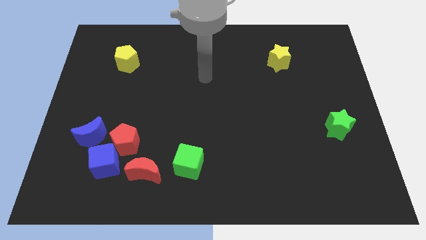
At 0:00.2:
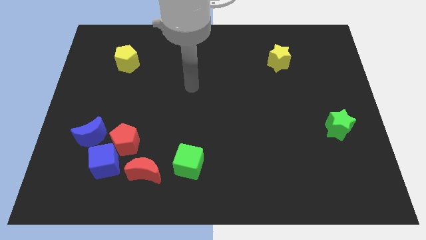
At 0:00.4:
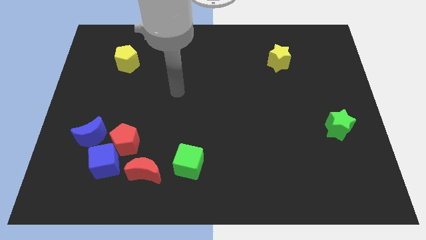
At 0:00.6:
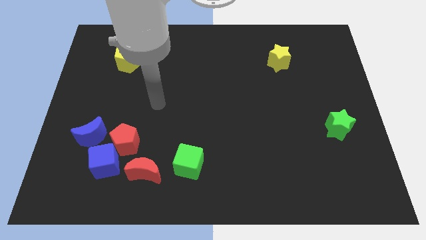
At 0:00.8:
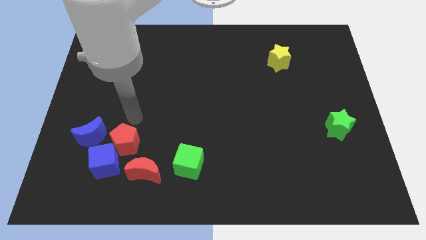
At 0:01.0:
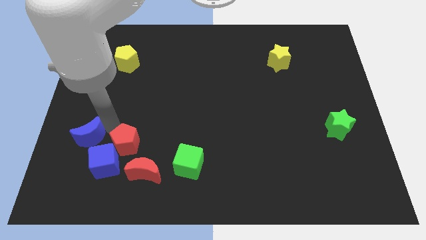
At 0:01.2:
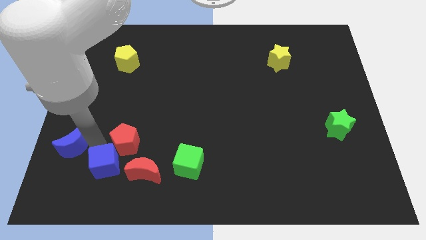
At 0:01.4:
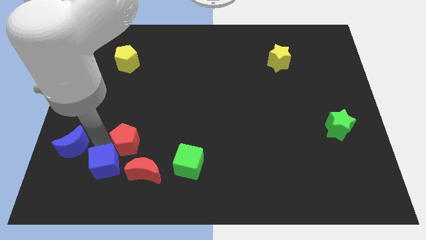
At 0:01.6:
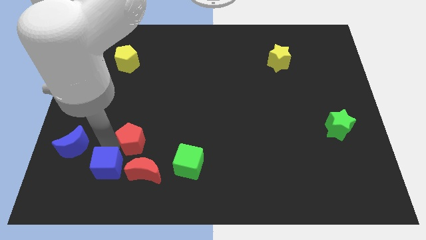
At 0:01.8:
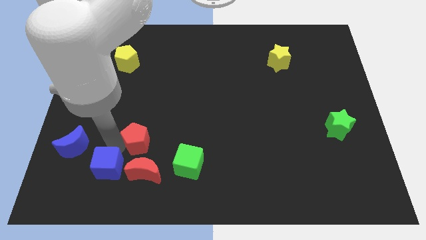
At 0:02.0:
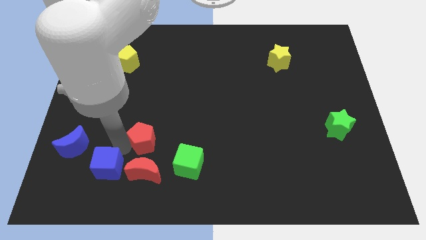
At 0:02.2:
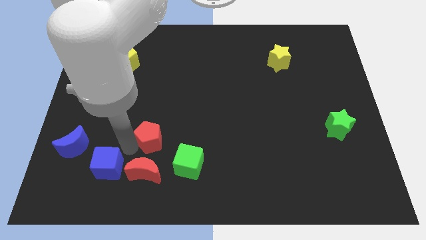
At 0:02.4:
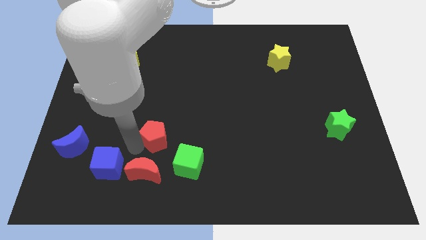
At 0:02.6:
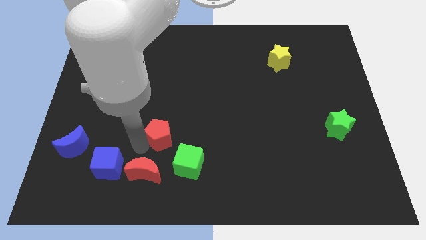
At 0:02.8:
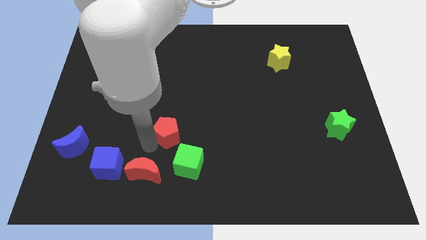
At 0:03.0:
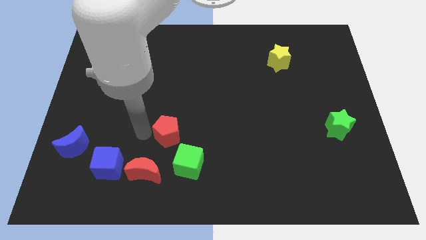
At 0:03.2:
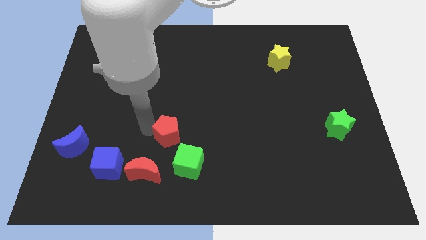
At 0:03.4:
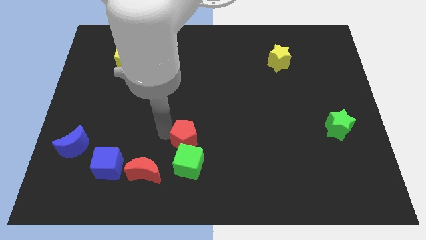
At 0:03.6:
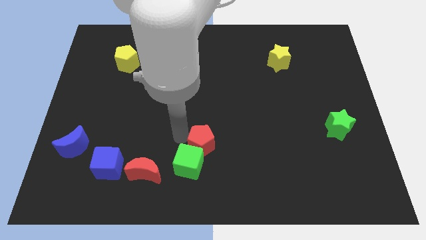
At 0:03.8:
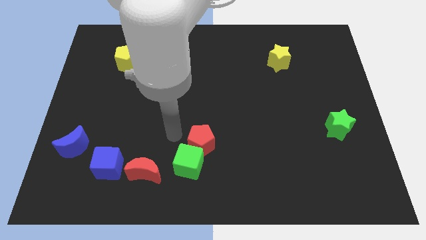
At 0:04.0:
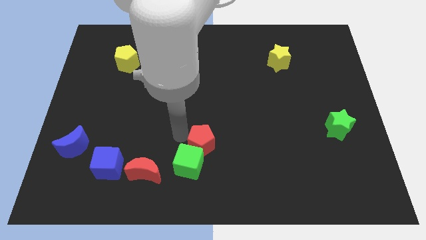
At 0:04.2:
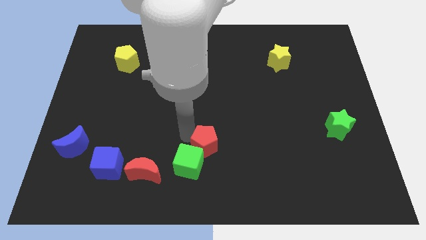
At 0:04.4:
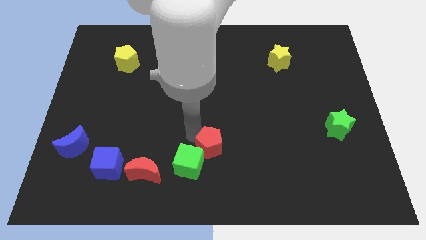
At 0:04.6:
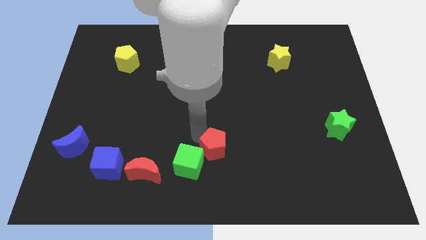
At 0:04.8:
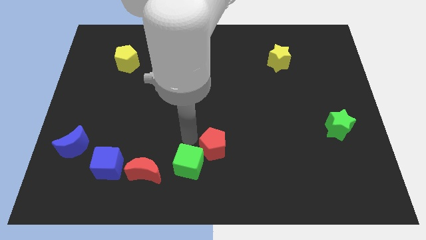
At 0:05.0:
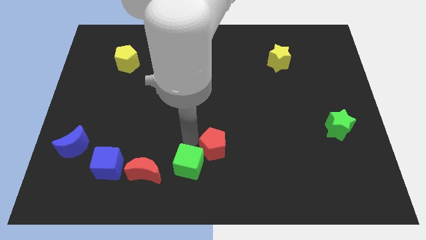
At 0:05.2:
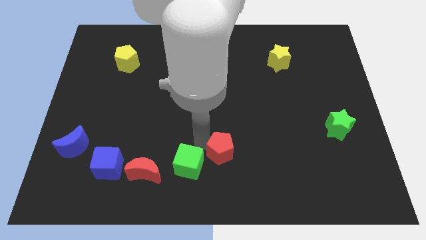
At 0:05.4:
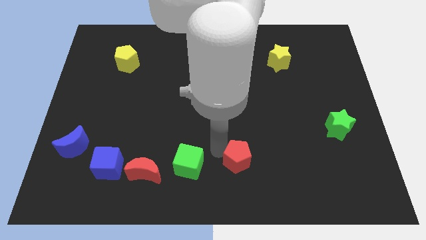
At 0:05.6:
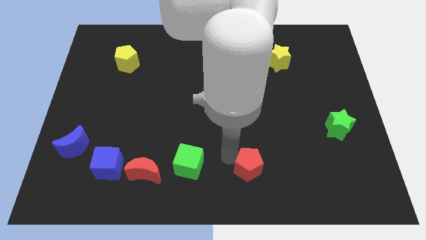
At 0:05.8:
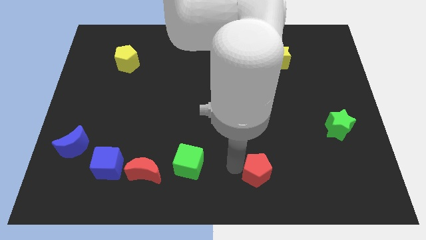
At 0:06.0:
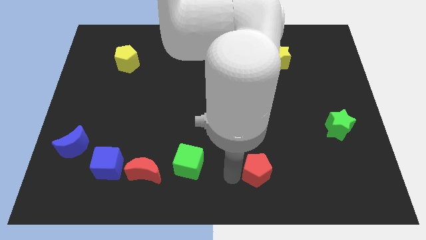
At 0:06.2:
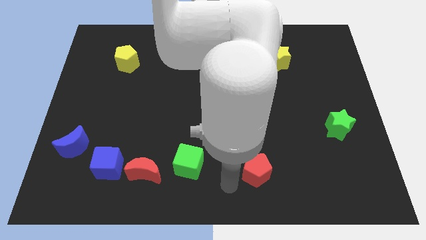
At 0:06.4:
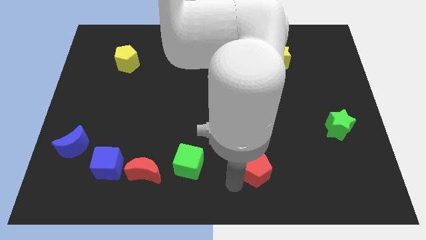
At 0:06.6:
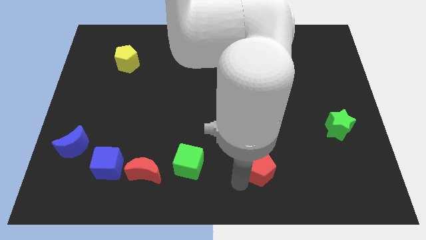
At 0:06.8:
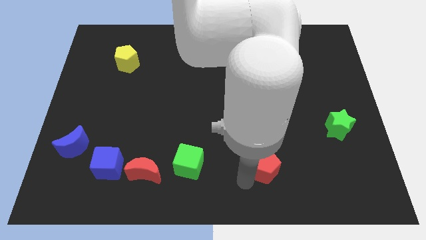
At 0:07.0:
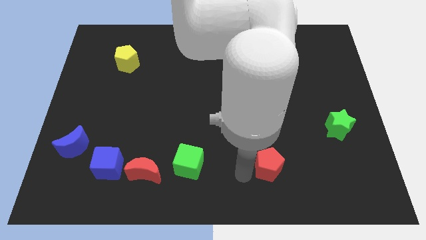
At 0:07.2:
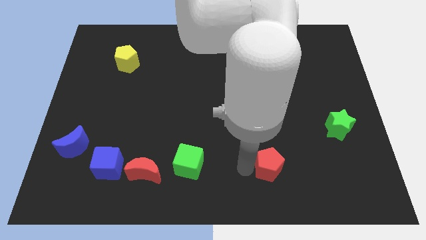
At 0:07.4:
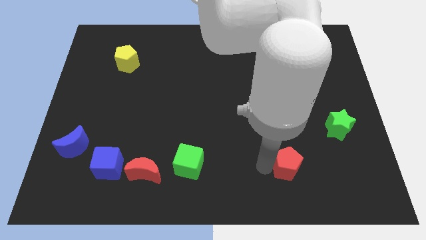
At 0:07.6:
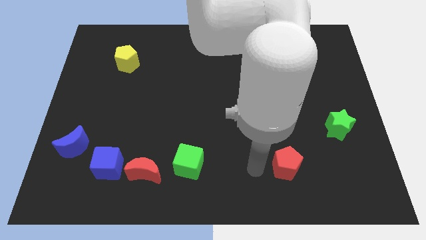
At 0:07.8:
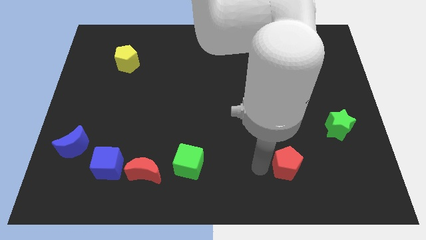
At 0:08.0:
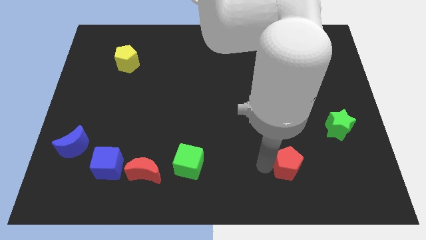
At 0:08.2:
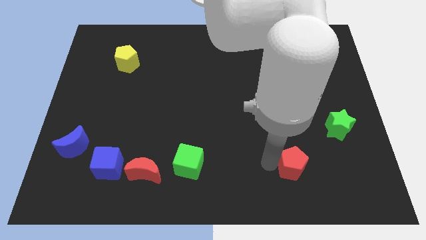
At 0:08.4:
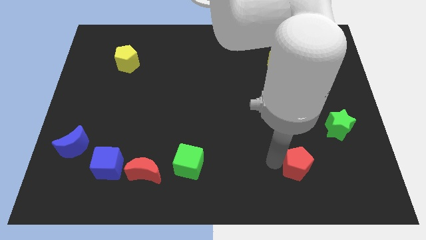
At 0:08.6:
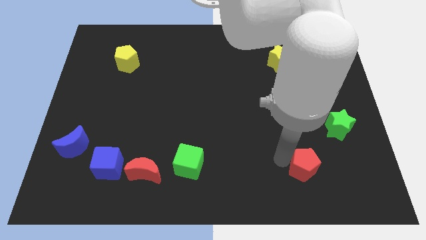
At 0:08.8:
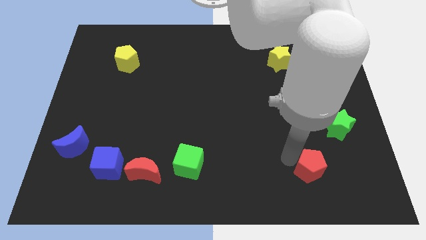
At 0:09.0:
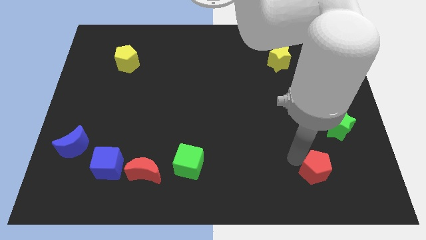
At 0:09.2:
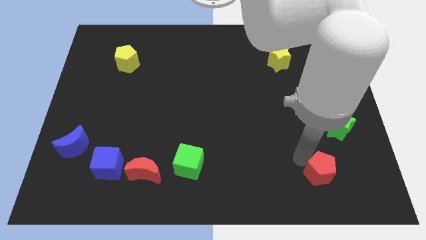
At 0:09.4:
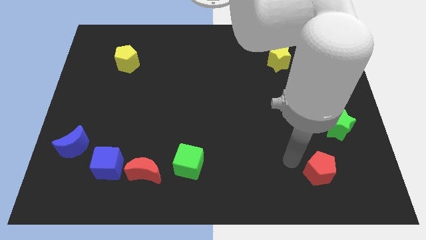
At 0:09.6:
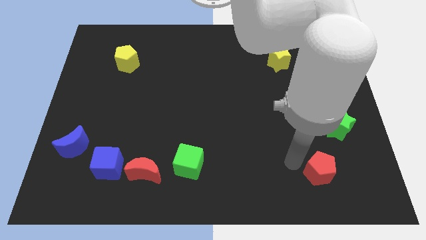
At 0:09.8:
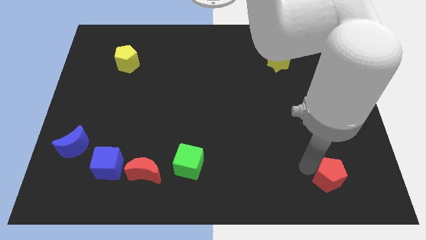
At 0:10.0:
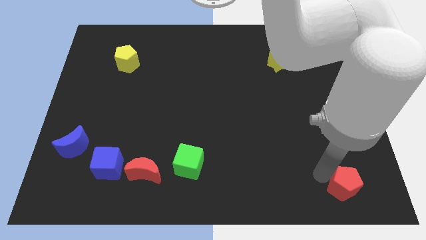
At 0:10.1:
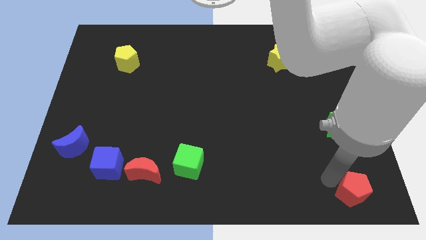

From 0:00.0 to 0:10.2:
move the red pentagon to the lower right corner

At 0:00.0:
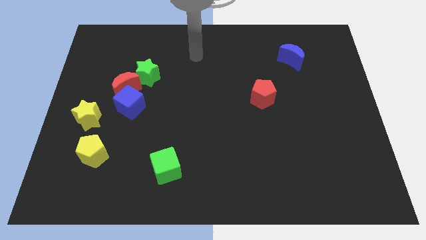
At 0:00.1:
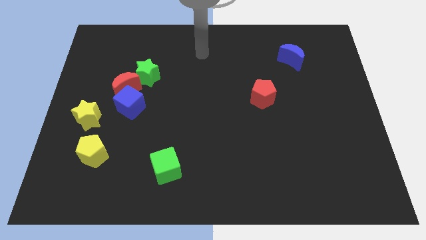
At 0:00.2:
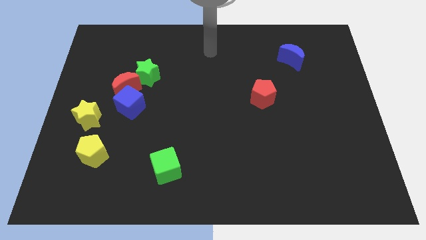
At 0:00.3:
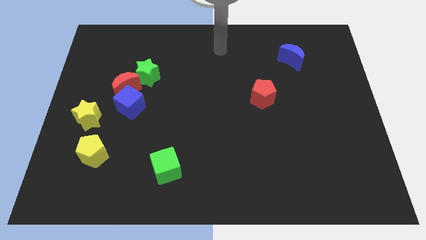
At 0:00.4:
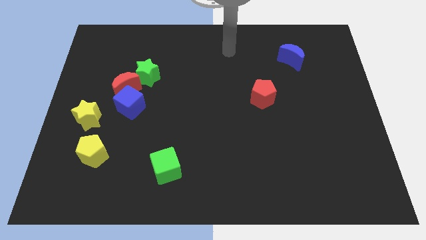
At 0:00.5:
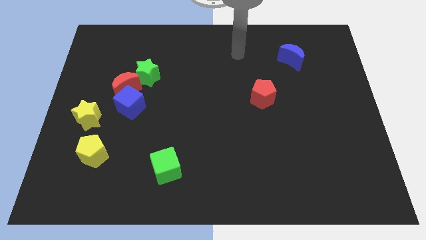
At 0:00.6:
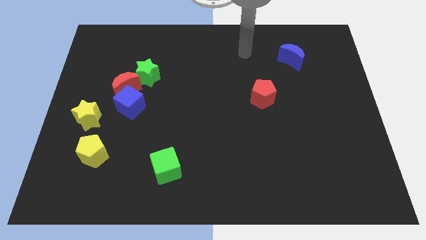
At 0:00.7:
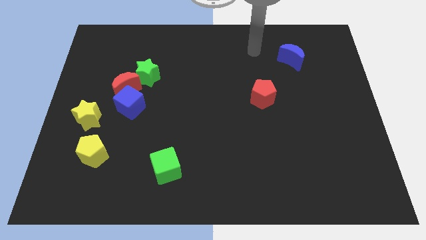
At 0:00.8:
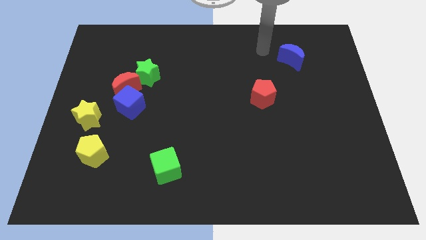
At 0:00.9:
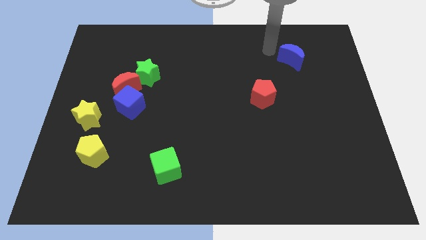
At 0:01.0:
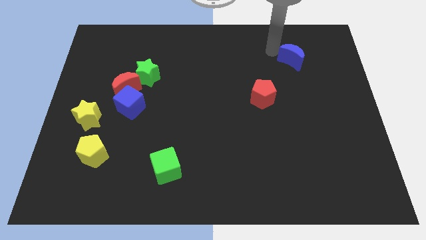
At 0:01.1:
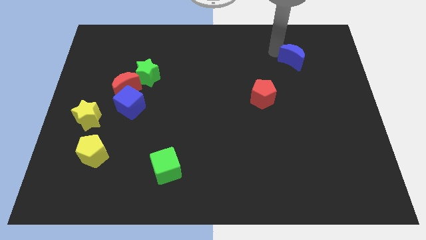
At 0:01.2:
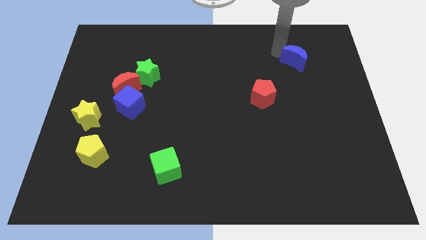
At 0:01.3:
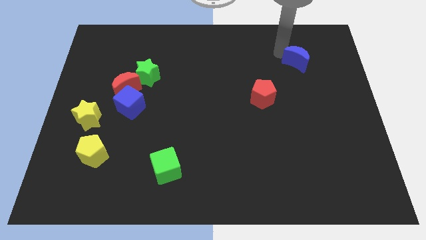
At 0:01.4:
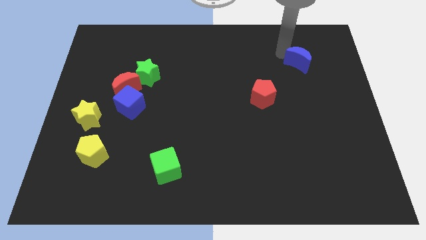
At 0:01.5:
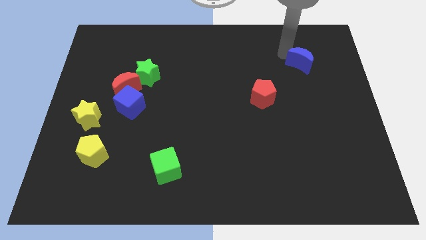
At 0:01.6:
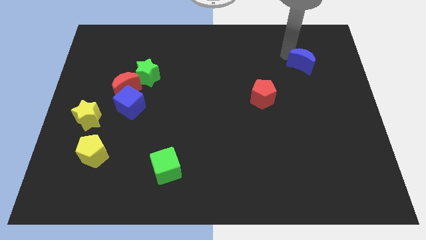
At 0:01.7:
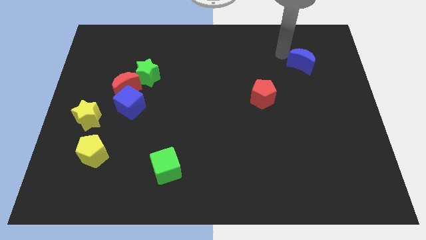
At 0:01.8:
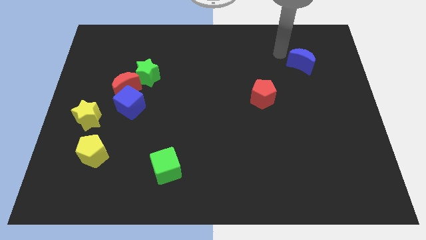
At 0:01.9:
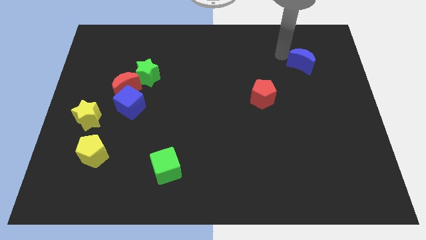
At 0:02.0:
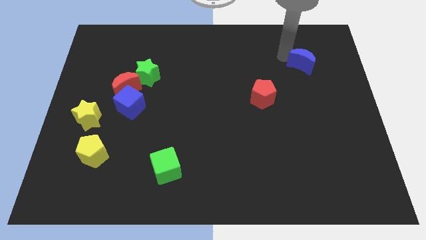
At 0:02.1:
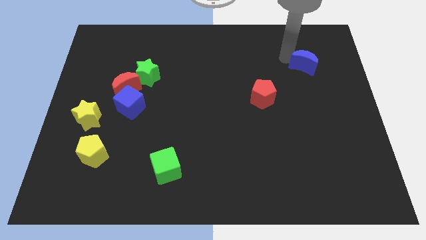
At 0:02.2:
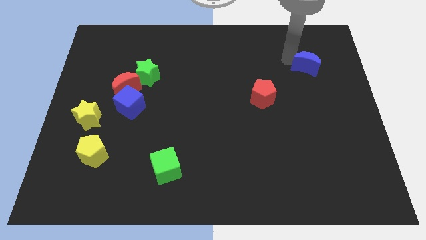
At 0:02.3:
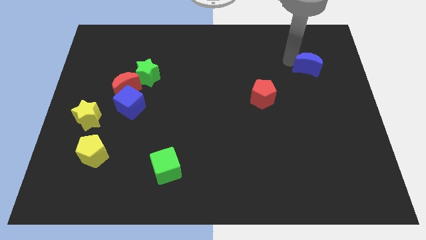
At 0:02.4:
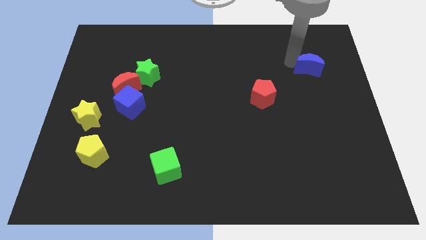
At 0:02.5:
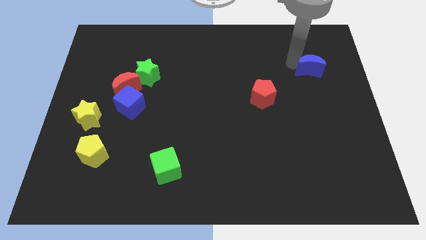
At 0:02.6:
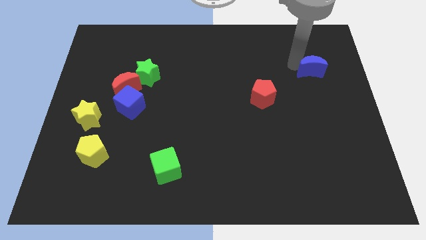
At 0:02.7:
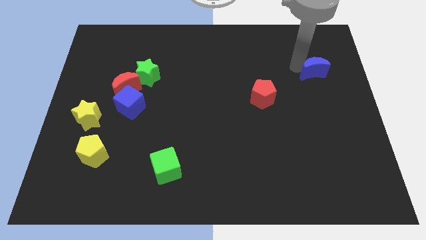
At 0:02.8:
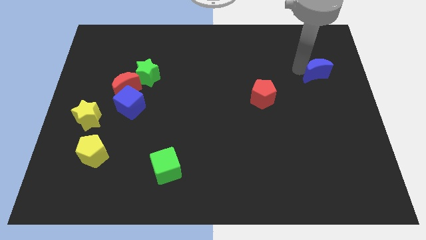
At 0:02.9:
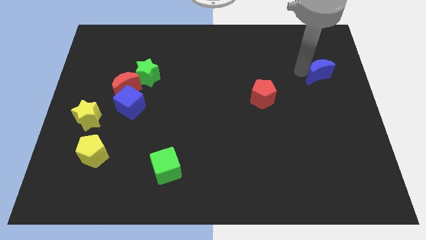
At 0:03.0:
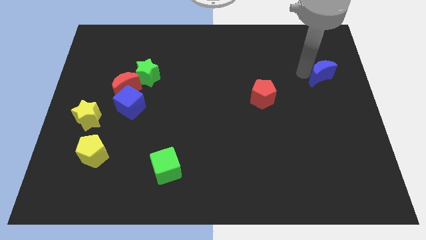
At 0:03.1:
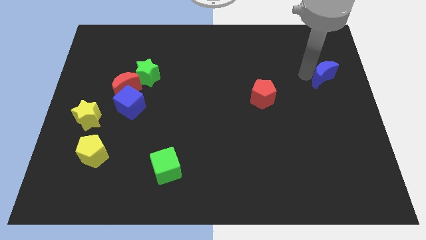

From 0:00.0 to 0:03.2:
put the blue moon to the right side
